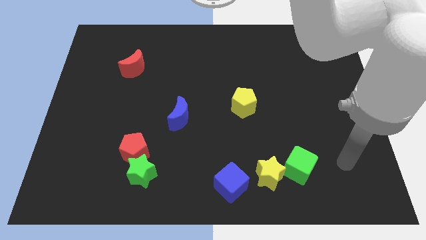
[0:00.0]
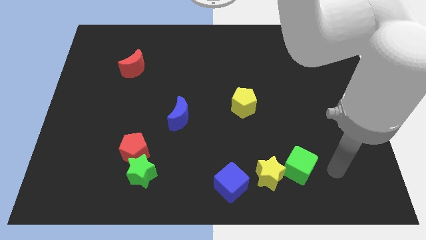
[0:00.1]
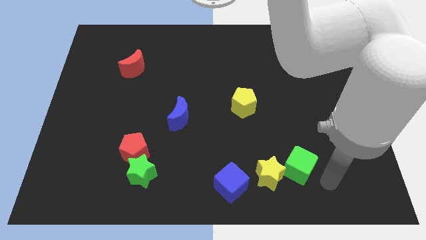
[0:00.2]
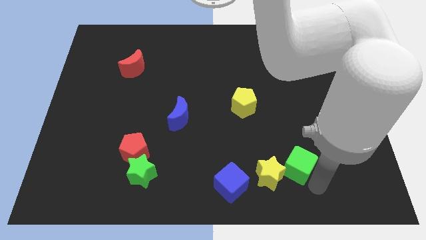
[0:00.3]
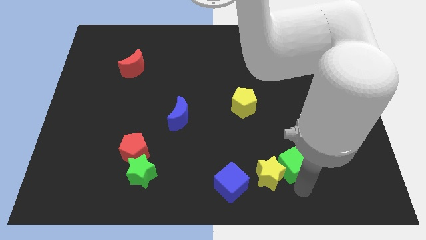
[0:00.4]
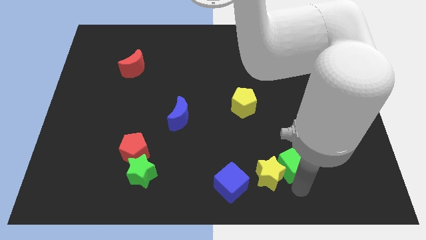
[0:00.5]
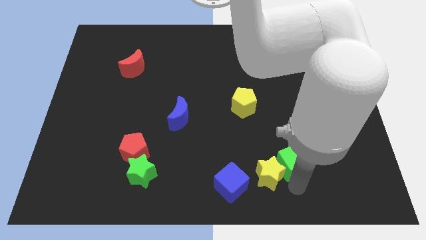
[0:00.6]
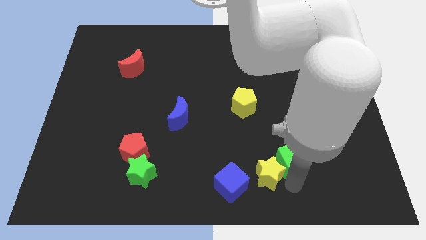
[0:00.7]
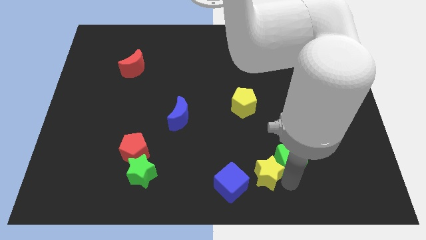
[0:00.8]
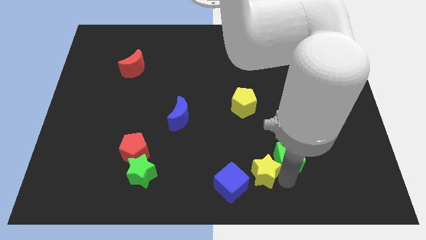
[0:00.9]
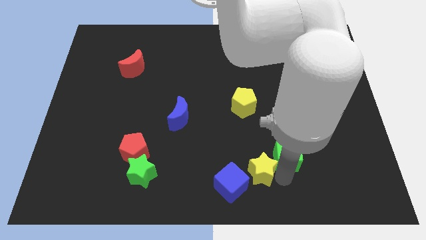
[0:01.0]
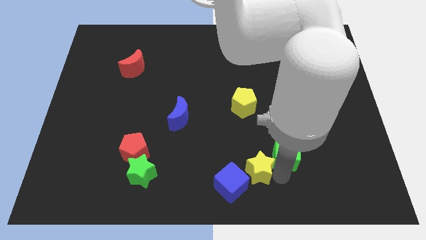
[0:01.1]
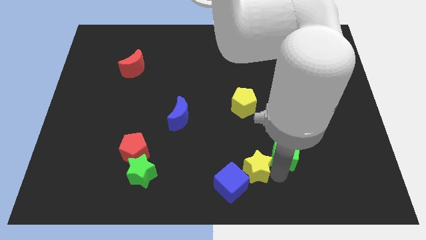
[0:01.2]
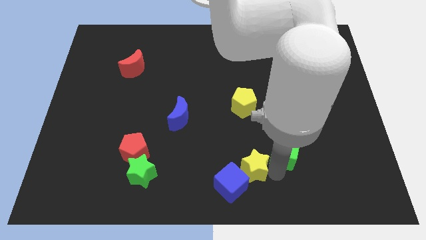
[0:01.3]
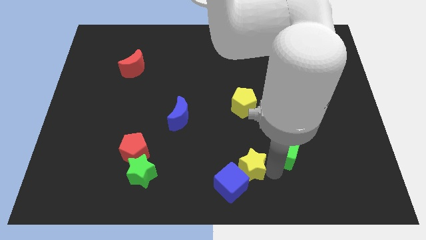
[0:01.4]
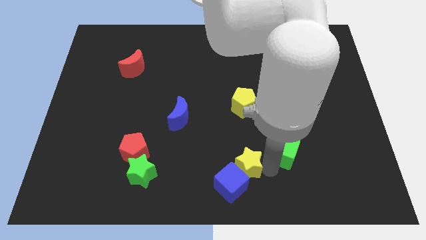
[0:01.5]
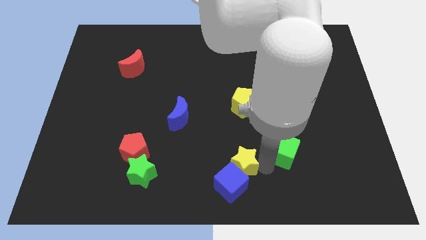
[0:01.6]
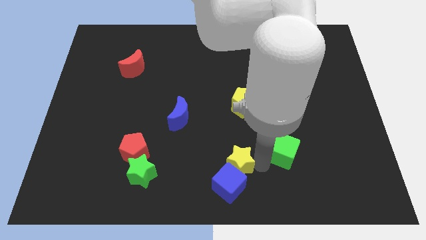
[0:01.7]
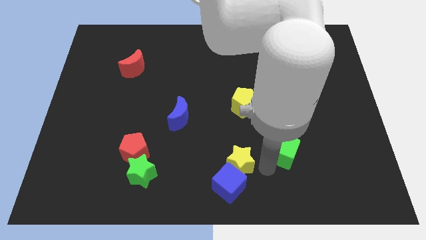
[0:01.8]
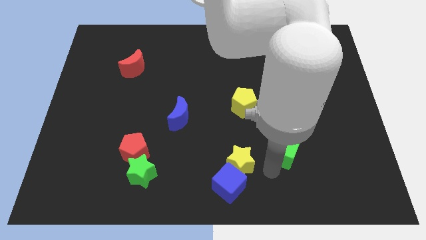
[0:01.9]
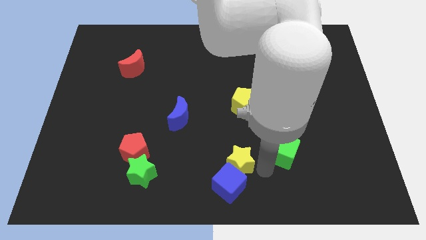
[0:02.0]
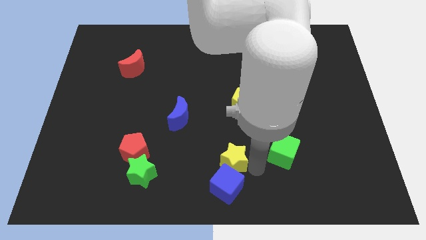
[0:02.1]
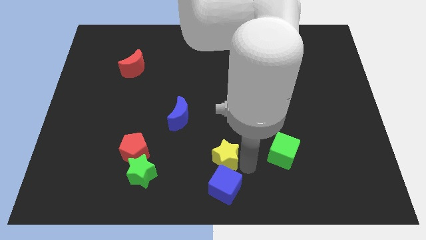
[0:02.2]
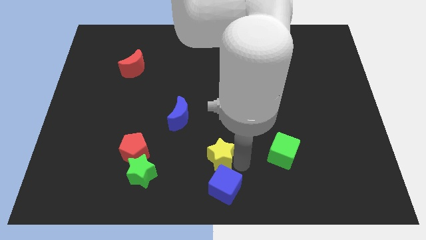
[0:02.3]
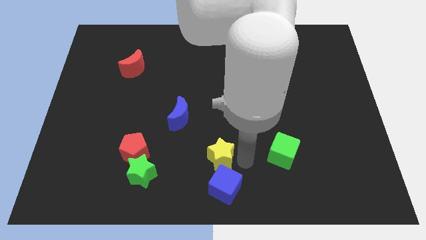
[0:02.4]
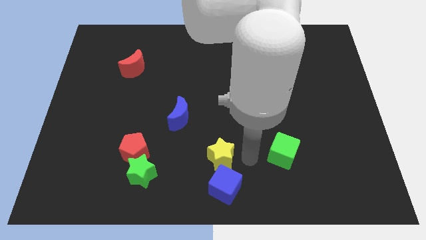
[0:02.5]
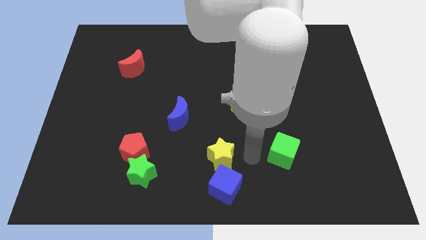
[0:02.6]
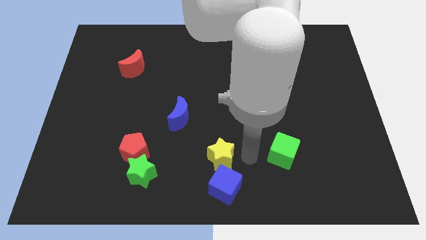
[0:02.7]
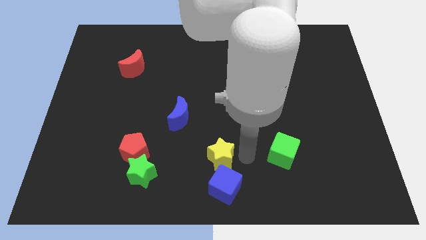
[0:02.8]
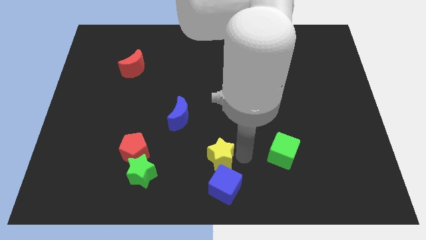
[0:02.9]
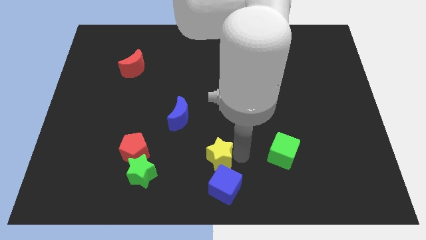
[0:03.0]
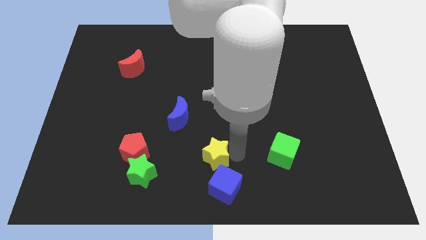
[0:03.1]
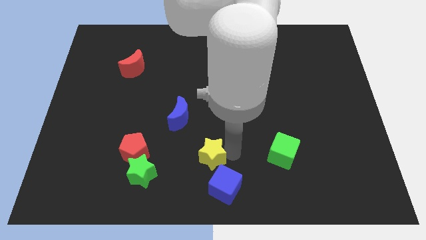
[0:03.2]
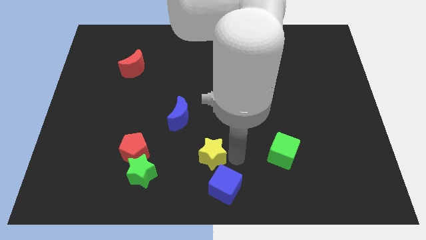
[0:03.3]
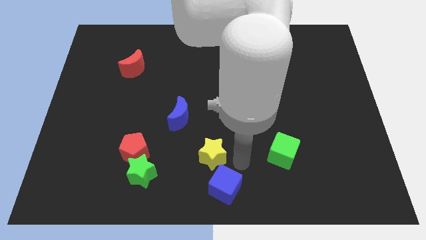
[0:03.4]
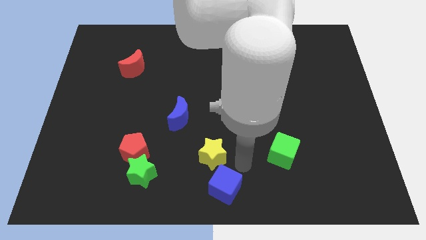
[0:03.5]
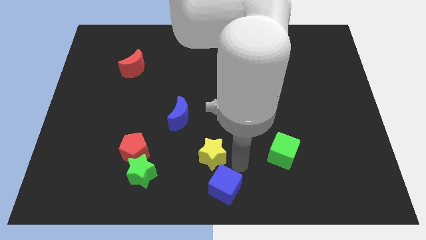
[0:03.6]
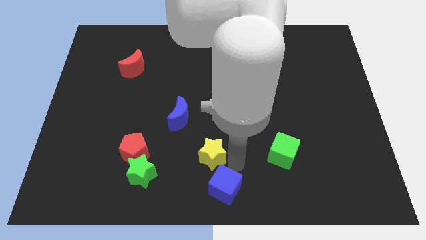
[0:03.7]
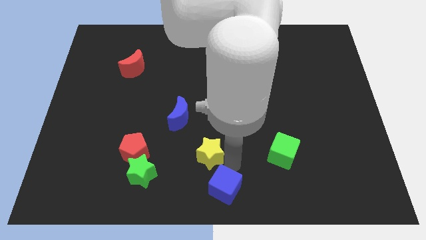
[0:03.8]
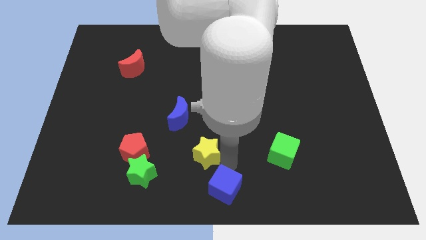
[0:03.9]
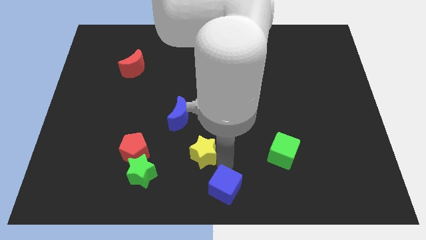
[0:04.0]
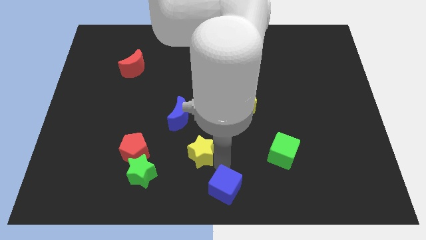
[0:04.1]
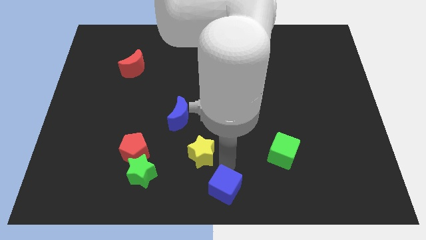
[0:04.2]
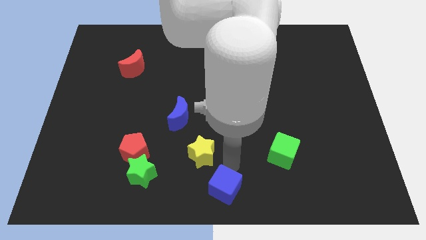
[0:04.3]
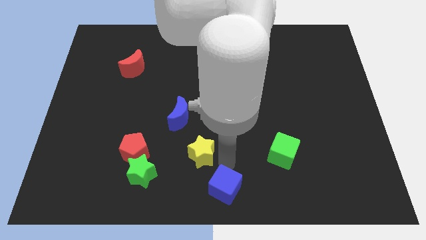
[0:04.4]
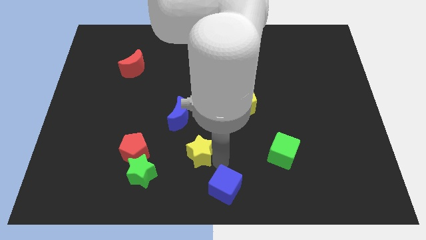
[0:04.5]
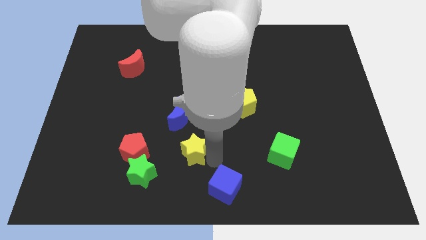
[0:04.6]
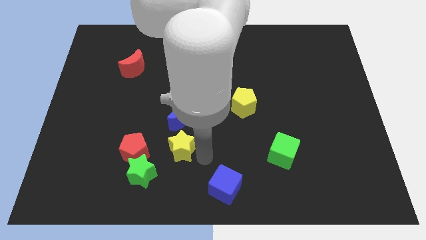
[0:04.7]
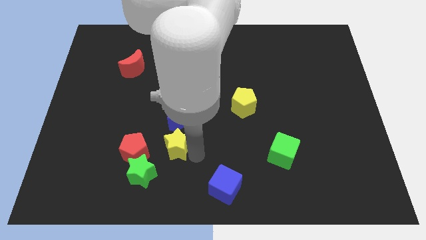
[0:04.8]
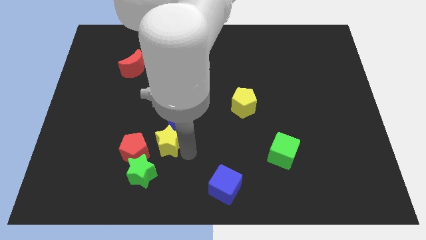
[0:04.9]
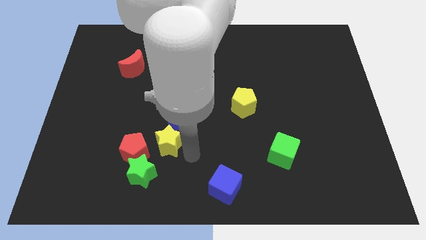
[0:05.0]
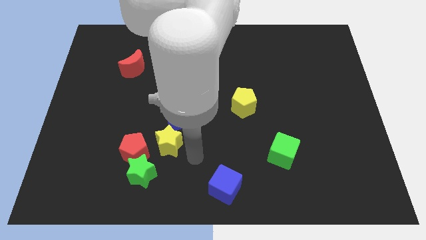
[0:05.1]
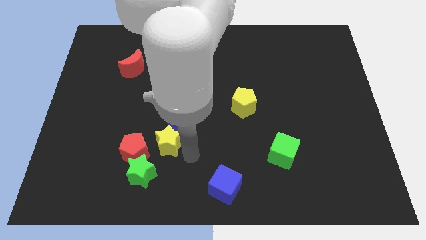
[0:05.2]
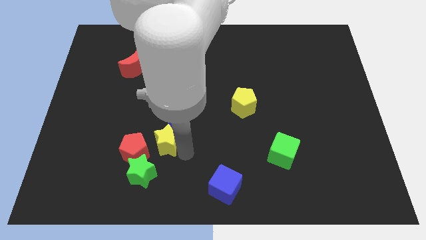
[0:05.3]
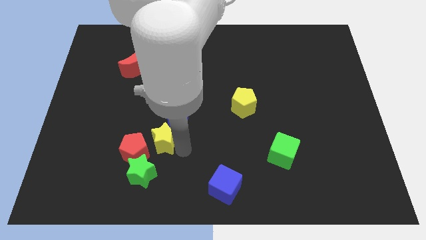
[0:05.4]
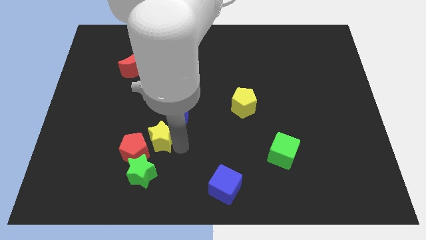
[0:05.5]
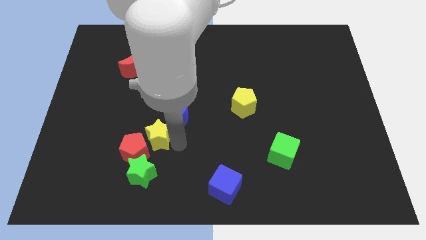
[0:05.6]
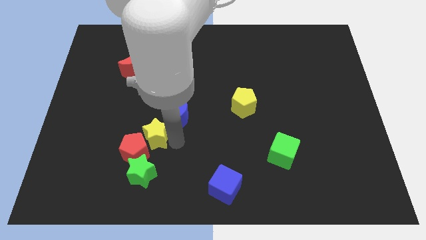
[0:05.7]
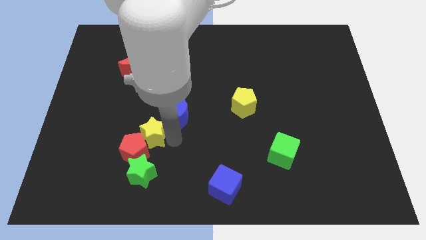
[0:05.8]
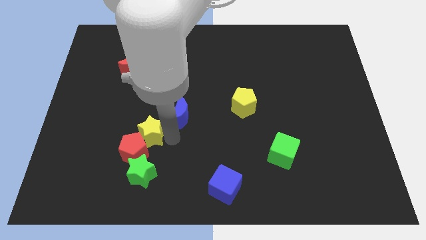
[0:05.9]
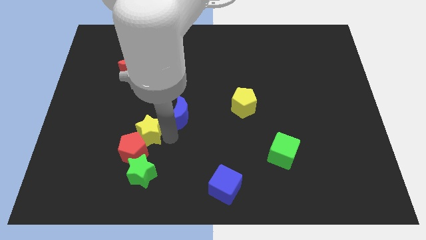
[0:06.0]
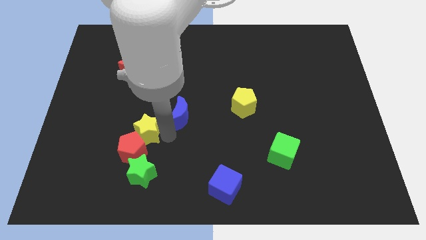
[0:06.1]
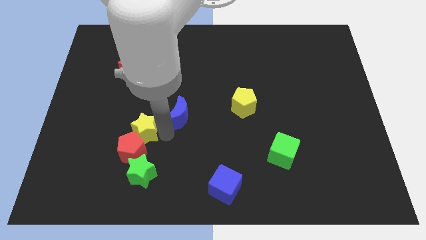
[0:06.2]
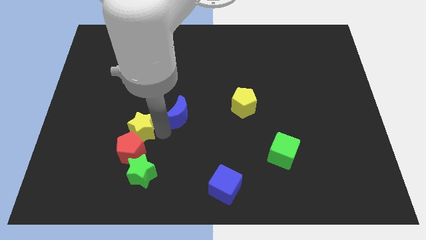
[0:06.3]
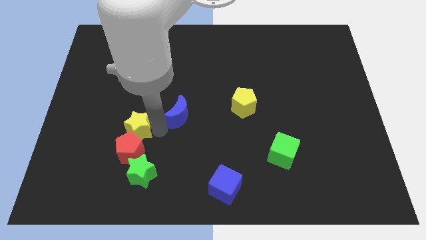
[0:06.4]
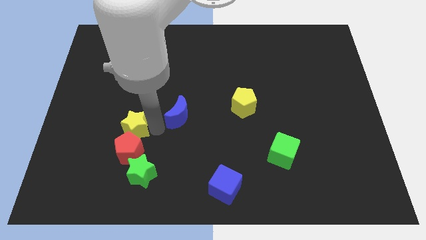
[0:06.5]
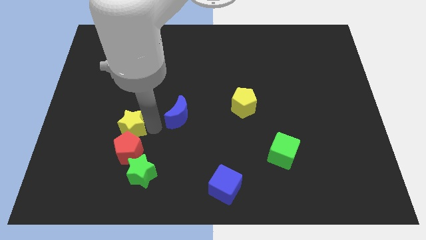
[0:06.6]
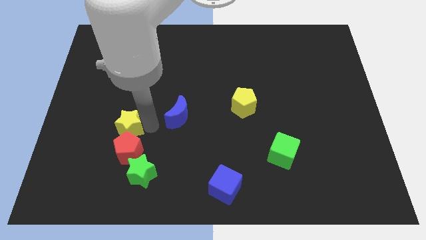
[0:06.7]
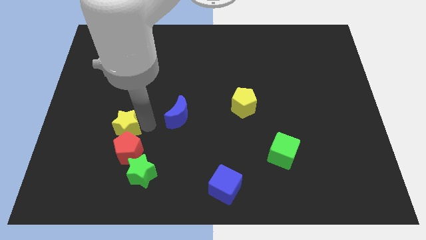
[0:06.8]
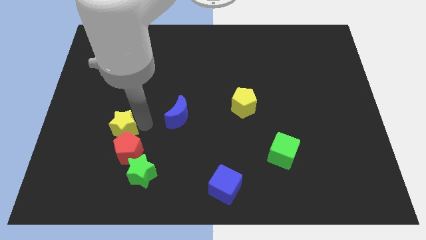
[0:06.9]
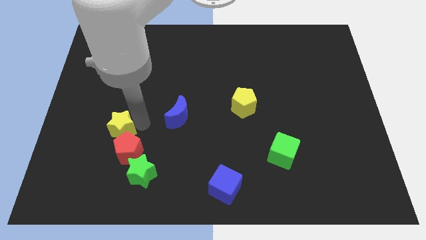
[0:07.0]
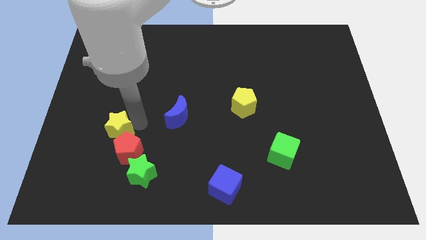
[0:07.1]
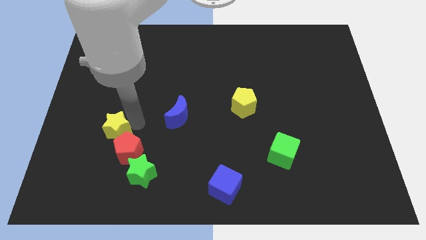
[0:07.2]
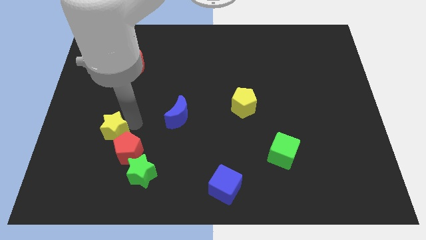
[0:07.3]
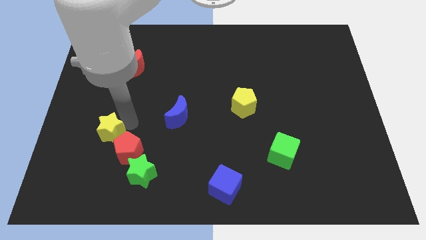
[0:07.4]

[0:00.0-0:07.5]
push the yellow star to the left side of the red pentagon
